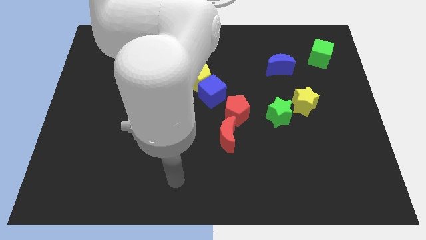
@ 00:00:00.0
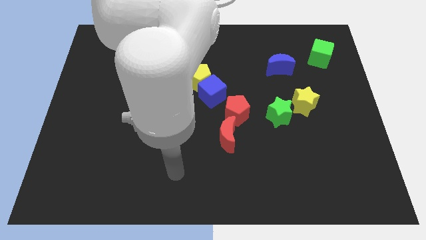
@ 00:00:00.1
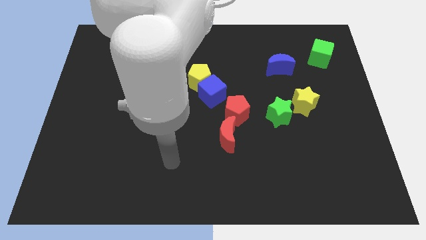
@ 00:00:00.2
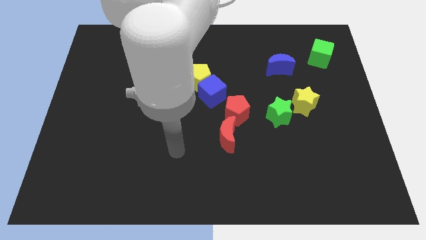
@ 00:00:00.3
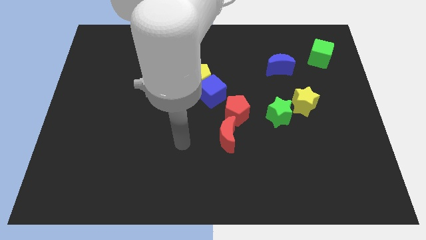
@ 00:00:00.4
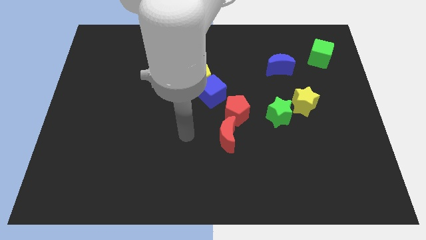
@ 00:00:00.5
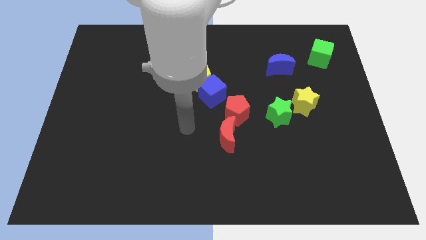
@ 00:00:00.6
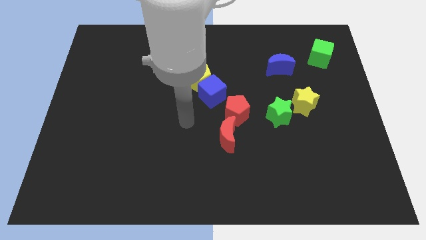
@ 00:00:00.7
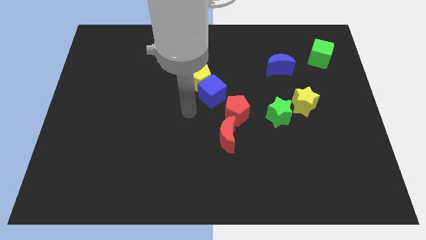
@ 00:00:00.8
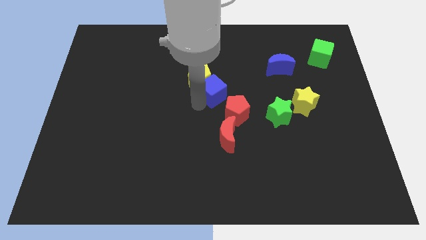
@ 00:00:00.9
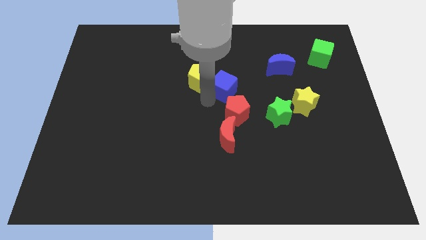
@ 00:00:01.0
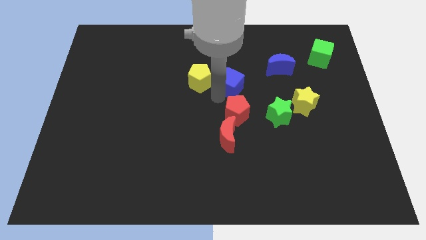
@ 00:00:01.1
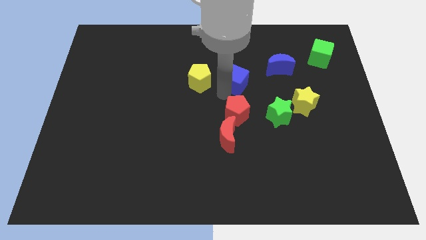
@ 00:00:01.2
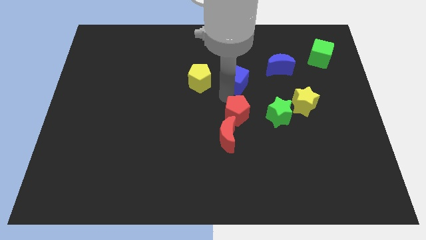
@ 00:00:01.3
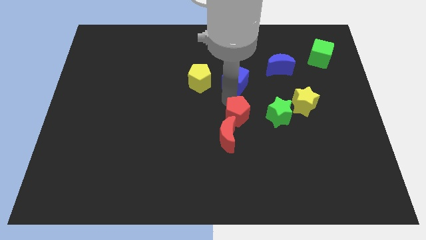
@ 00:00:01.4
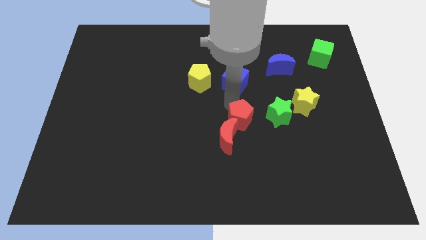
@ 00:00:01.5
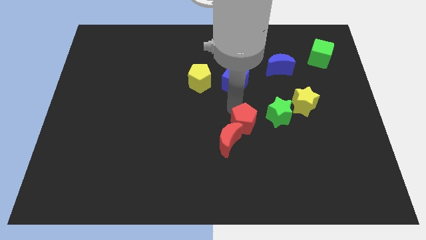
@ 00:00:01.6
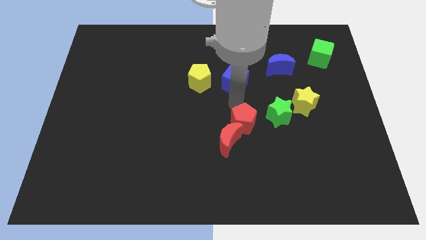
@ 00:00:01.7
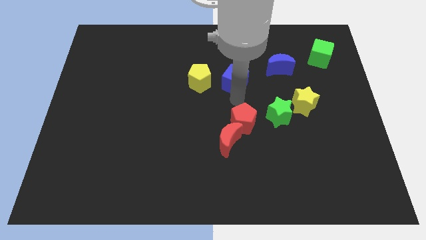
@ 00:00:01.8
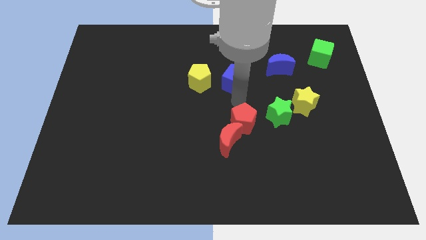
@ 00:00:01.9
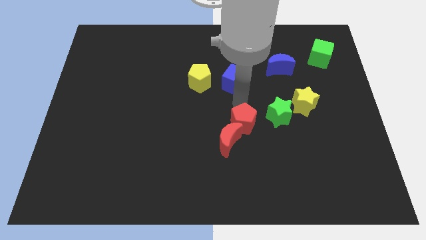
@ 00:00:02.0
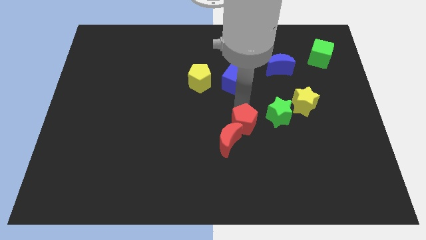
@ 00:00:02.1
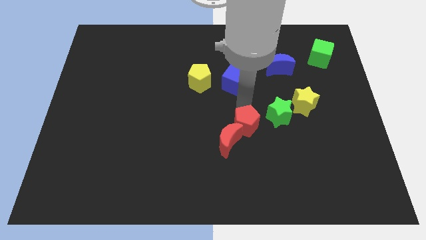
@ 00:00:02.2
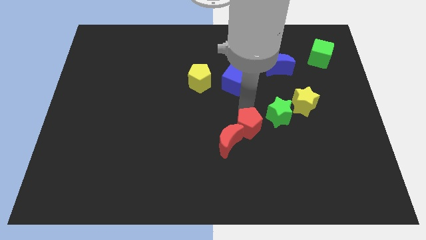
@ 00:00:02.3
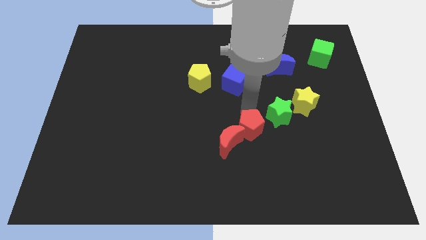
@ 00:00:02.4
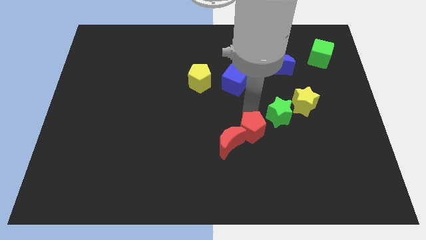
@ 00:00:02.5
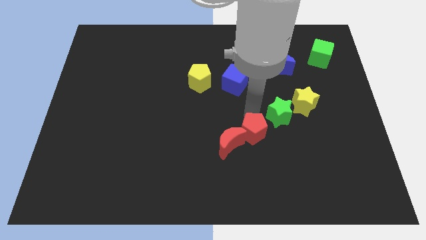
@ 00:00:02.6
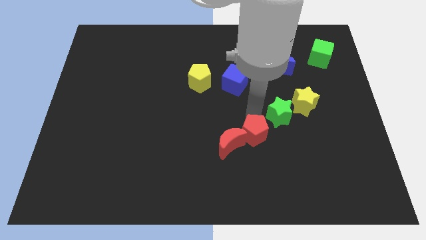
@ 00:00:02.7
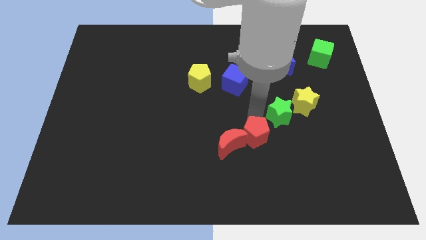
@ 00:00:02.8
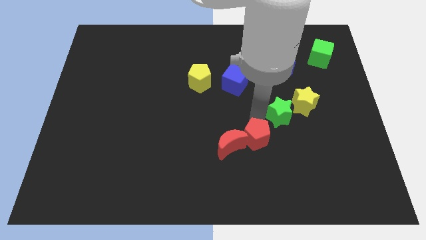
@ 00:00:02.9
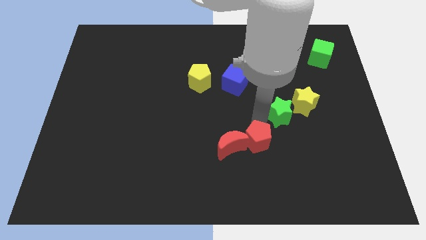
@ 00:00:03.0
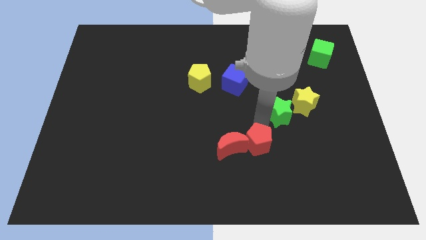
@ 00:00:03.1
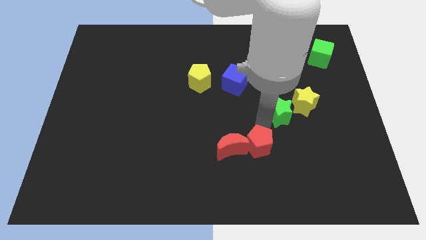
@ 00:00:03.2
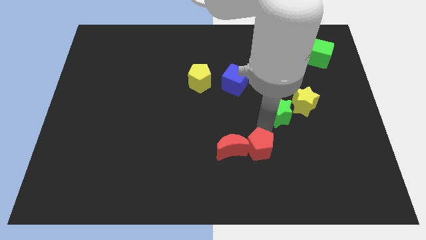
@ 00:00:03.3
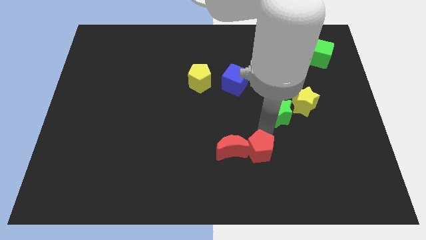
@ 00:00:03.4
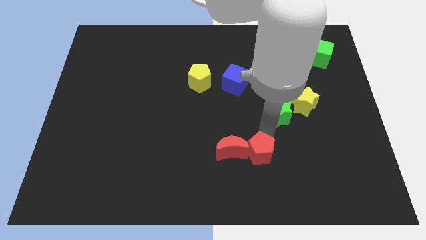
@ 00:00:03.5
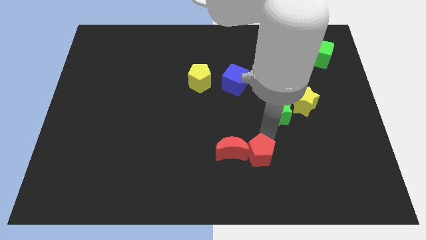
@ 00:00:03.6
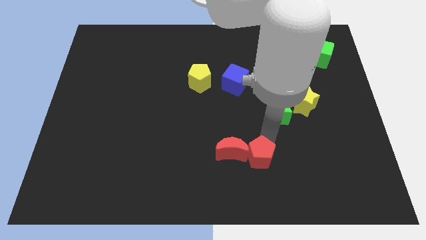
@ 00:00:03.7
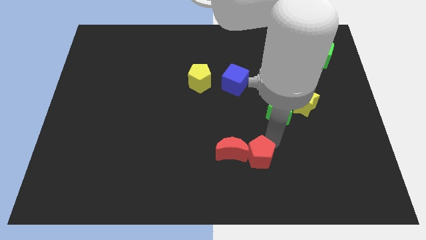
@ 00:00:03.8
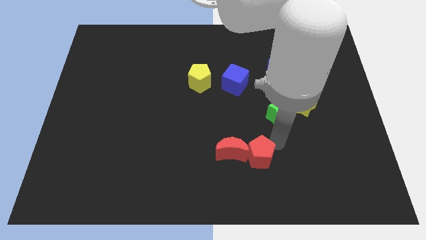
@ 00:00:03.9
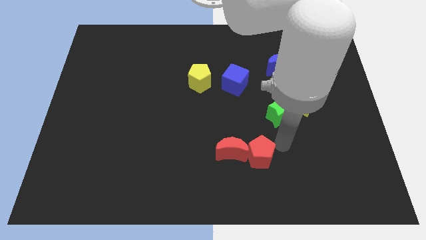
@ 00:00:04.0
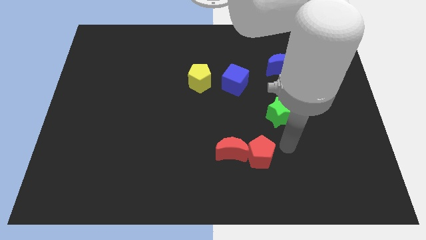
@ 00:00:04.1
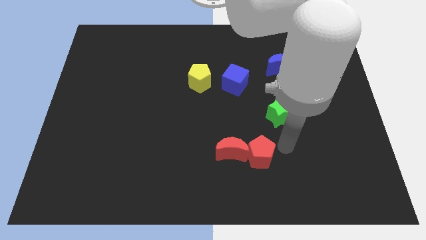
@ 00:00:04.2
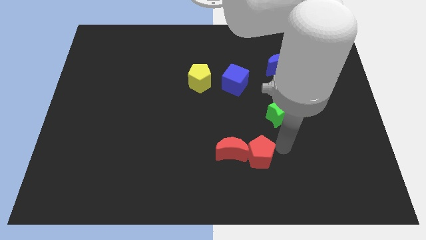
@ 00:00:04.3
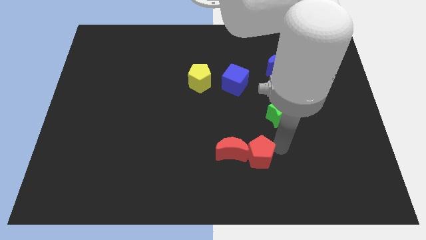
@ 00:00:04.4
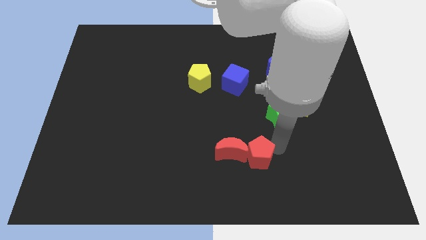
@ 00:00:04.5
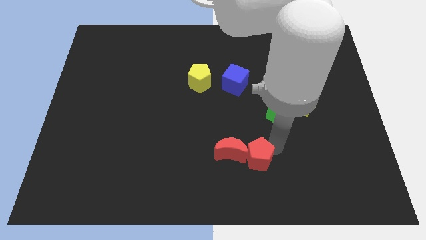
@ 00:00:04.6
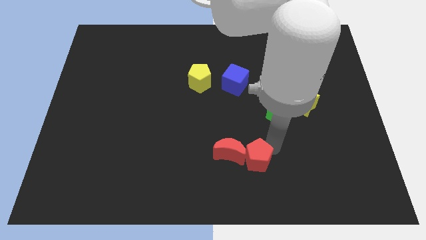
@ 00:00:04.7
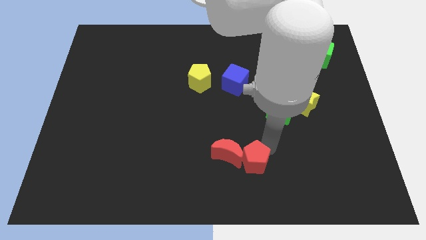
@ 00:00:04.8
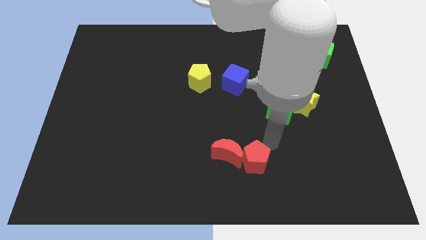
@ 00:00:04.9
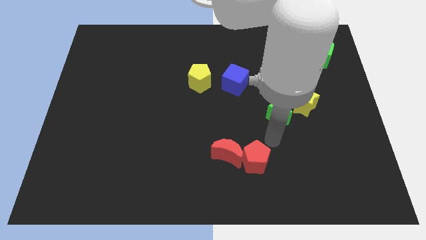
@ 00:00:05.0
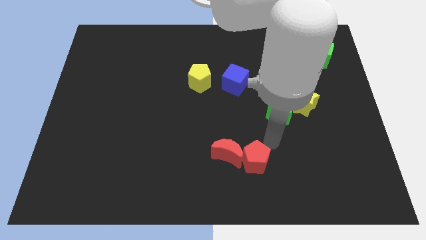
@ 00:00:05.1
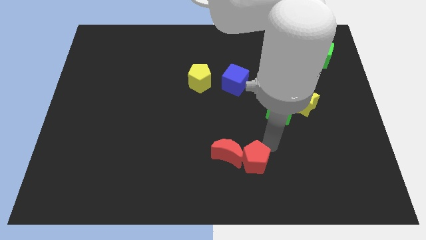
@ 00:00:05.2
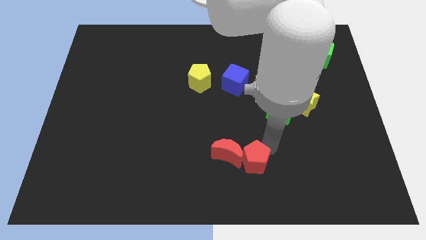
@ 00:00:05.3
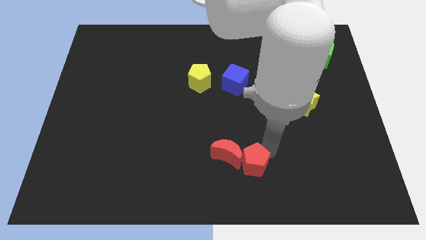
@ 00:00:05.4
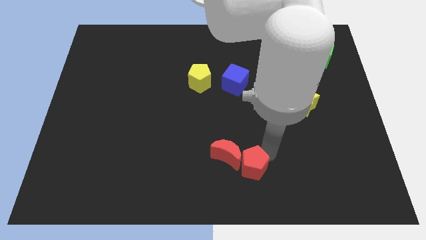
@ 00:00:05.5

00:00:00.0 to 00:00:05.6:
put the red pentagon to the bottom
